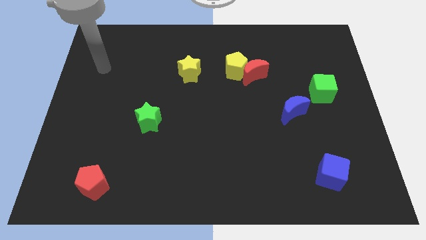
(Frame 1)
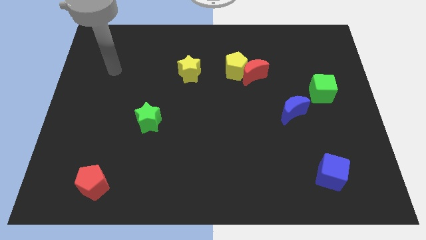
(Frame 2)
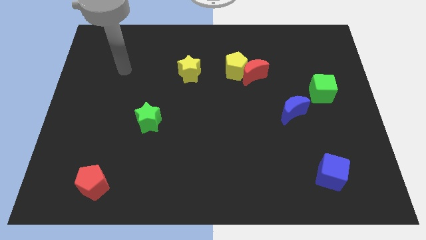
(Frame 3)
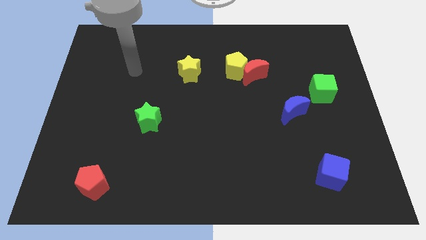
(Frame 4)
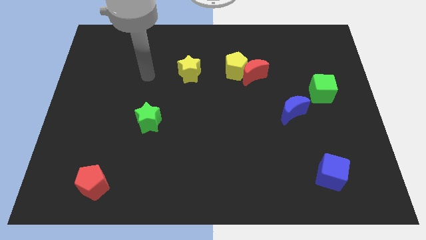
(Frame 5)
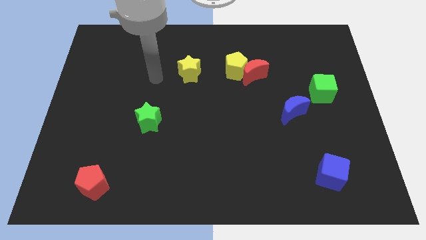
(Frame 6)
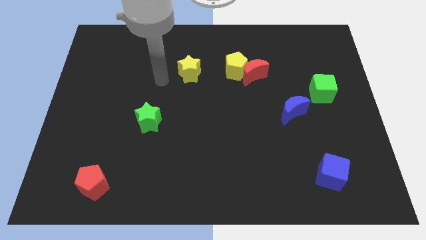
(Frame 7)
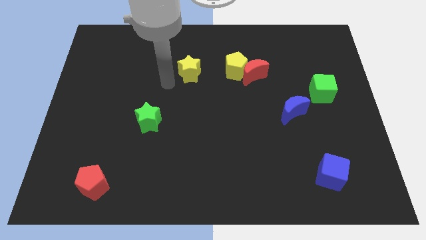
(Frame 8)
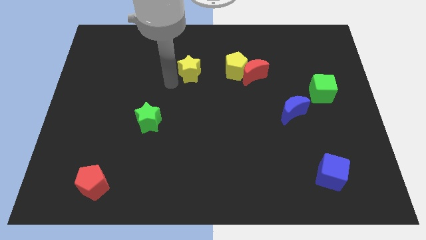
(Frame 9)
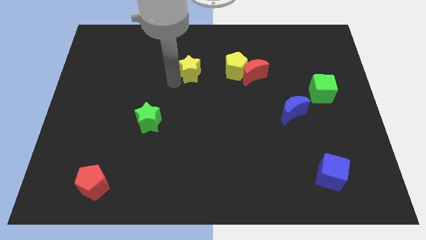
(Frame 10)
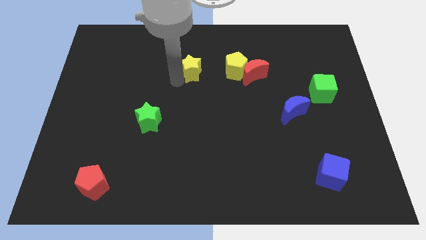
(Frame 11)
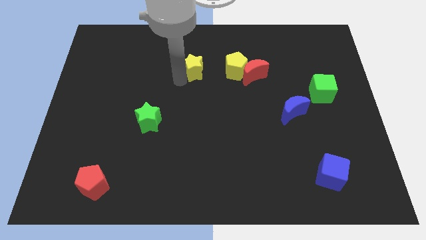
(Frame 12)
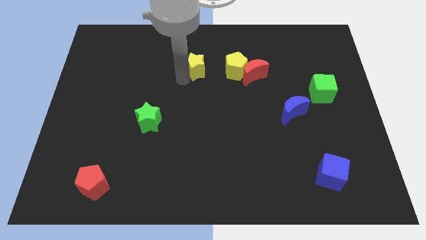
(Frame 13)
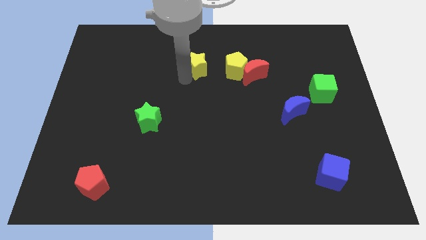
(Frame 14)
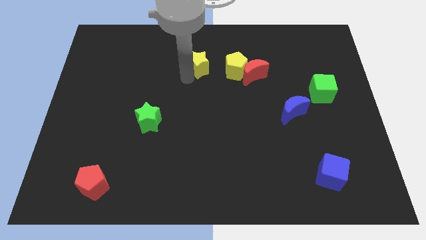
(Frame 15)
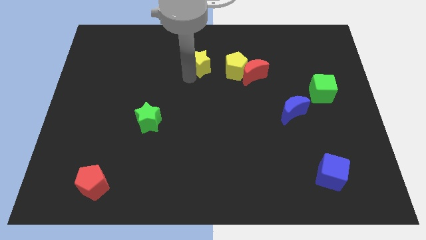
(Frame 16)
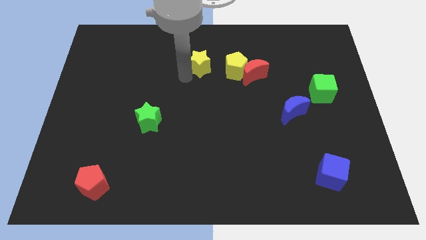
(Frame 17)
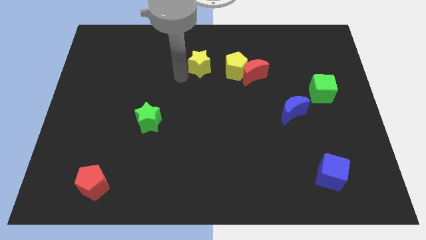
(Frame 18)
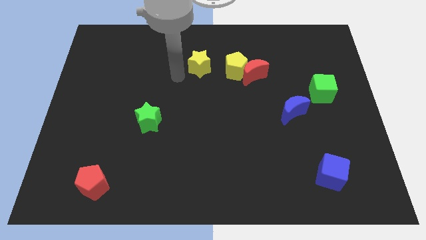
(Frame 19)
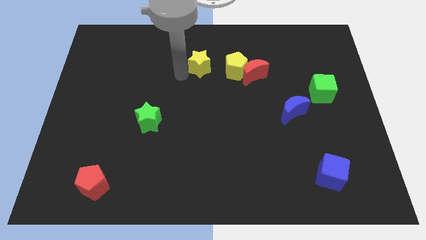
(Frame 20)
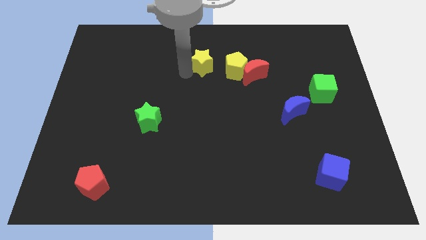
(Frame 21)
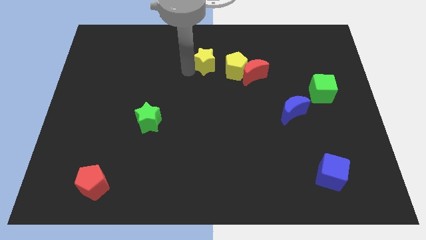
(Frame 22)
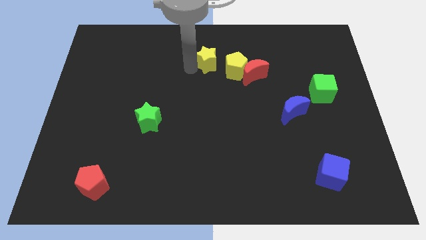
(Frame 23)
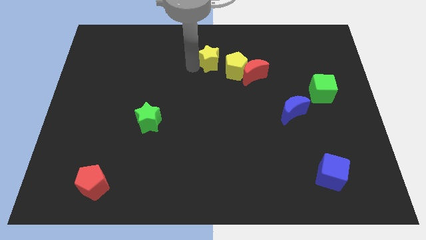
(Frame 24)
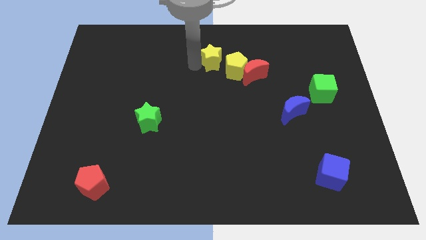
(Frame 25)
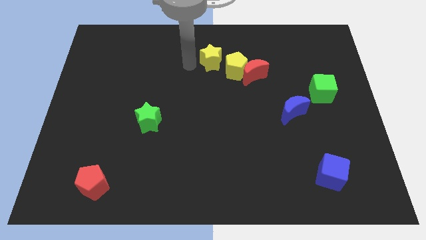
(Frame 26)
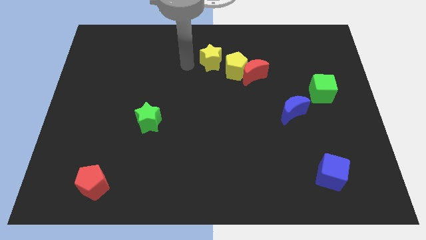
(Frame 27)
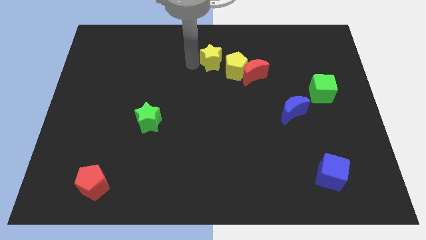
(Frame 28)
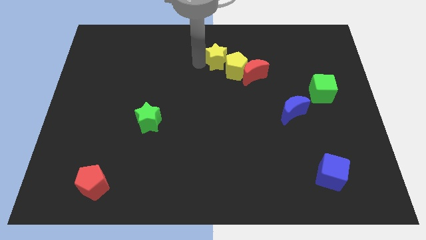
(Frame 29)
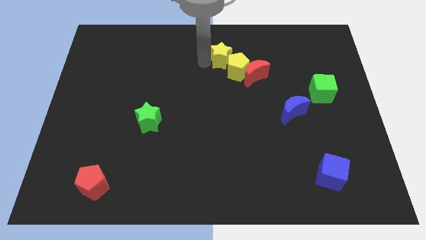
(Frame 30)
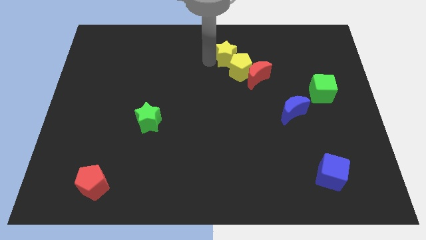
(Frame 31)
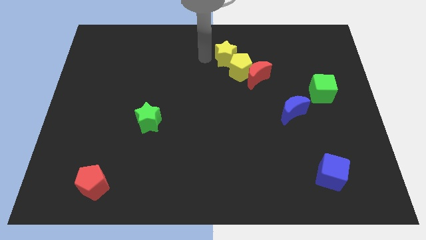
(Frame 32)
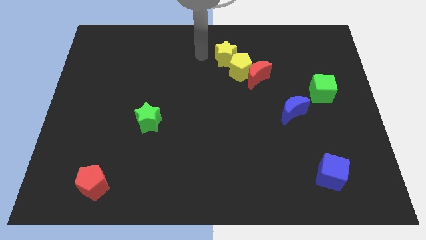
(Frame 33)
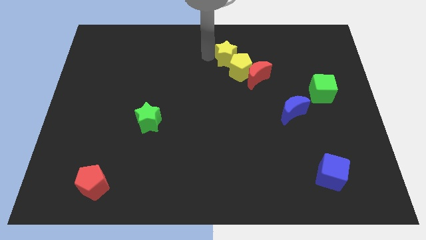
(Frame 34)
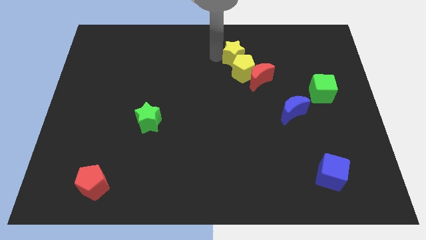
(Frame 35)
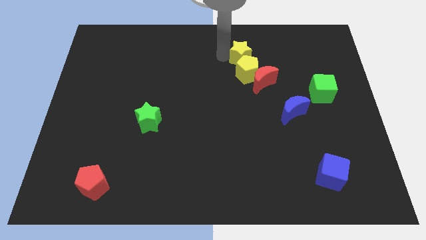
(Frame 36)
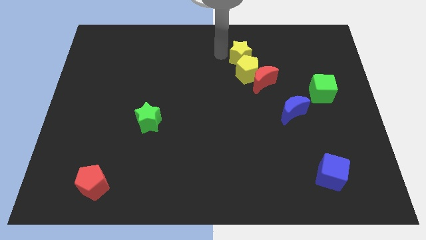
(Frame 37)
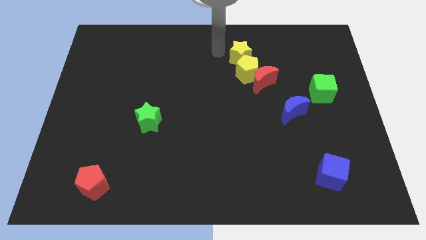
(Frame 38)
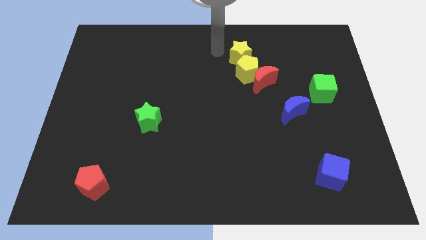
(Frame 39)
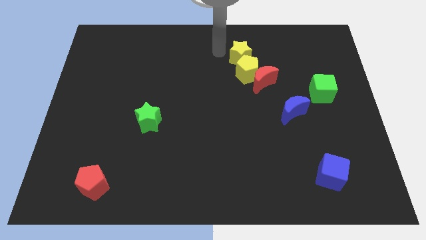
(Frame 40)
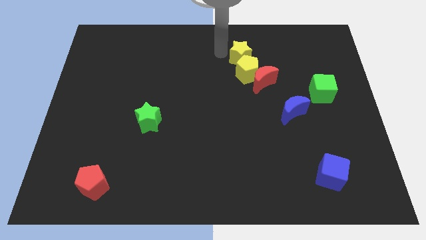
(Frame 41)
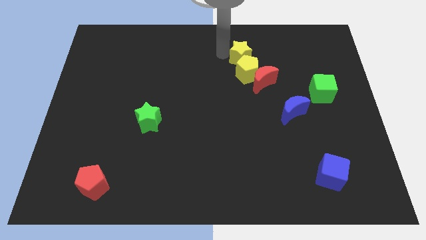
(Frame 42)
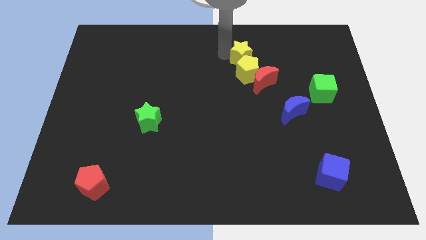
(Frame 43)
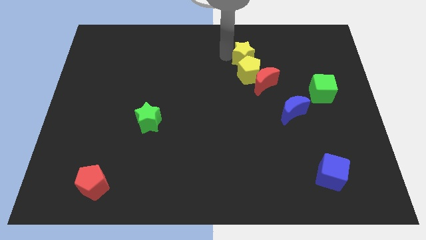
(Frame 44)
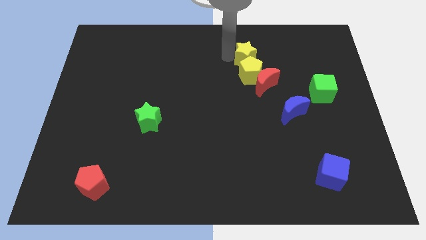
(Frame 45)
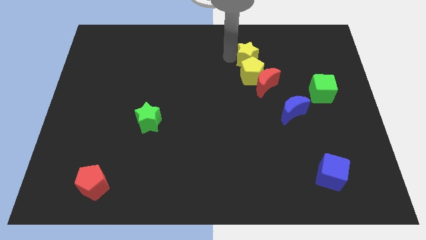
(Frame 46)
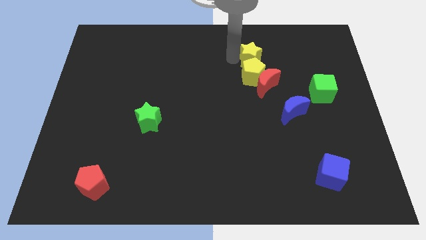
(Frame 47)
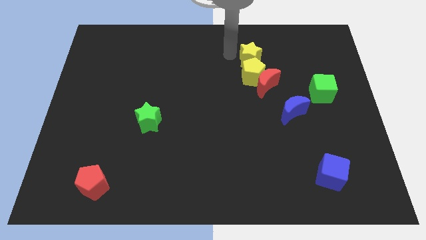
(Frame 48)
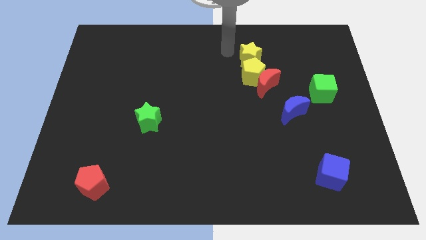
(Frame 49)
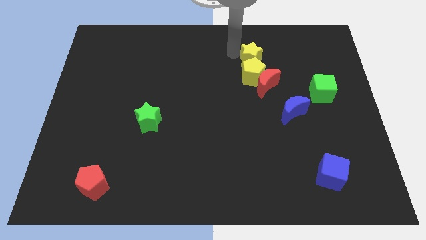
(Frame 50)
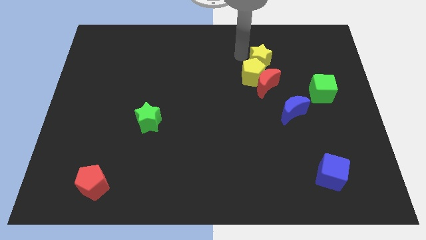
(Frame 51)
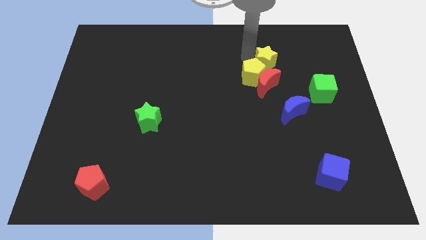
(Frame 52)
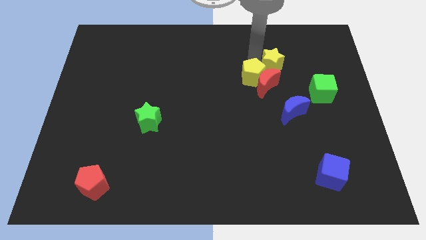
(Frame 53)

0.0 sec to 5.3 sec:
slide the yellow star to the top right side of the red moon

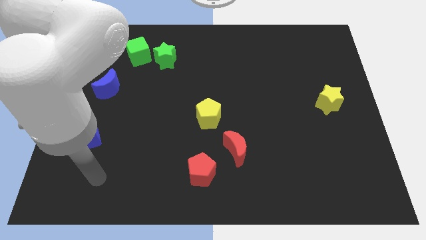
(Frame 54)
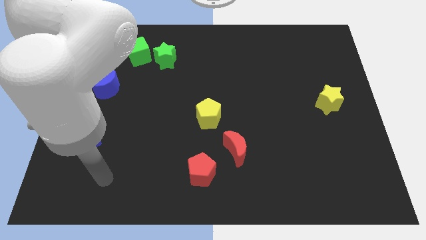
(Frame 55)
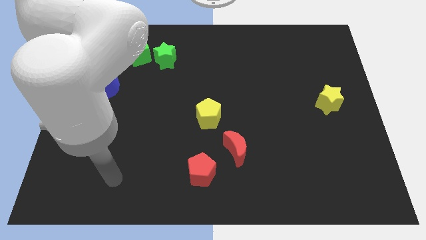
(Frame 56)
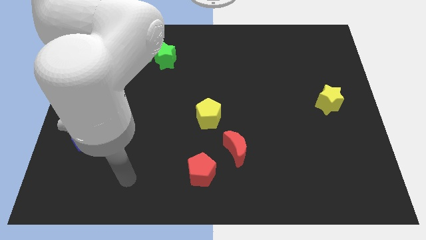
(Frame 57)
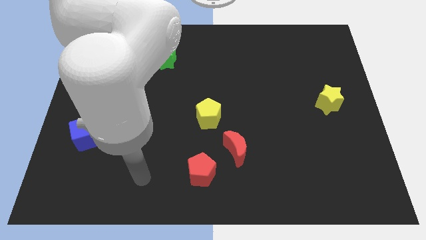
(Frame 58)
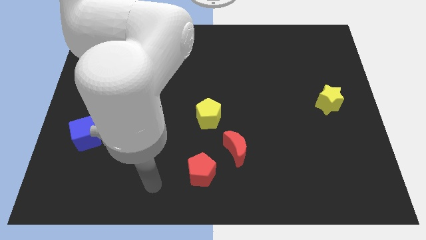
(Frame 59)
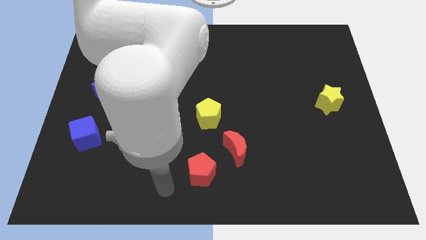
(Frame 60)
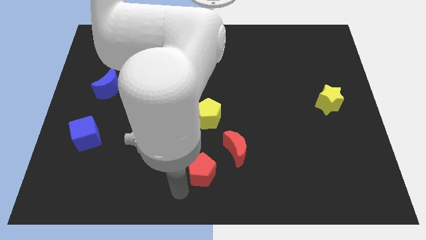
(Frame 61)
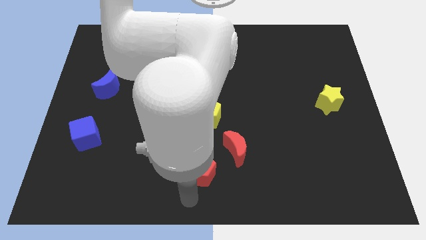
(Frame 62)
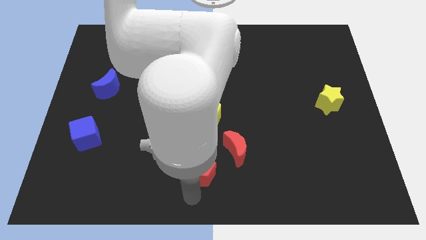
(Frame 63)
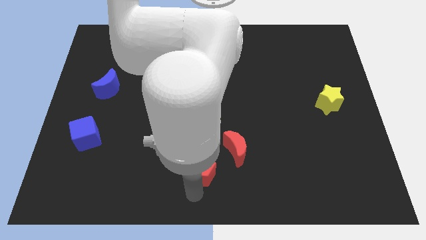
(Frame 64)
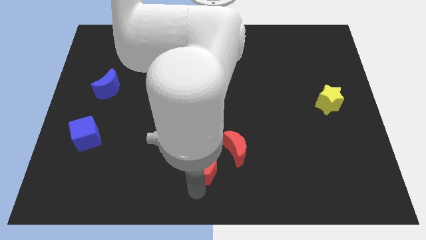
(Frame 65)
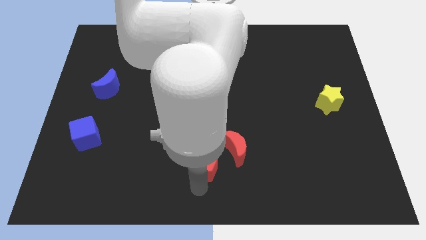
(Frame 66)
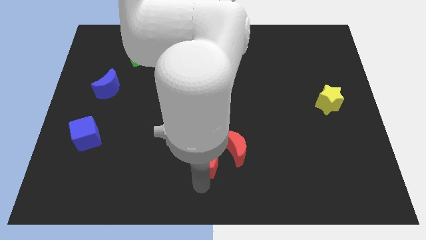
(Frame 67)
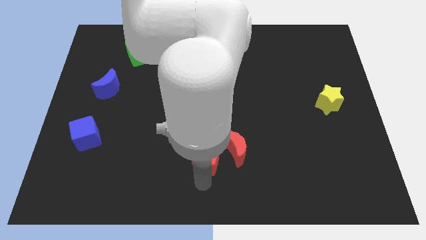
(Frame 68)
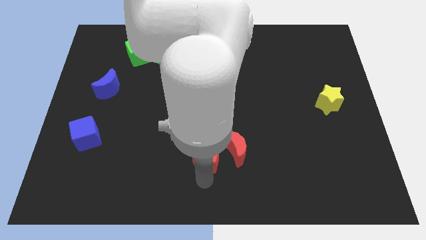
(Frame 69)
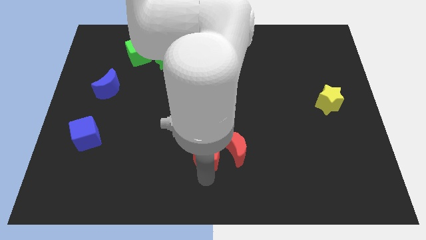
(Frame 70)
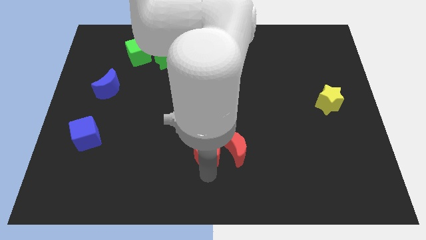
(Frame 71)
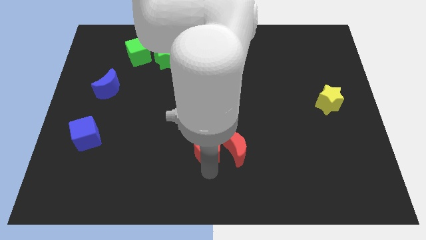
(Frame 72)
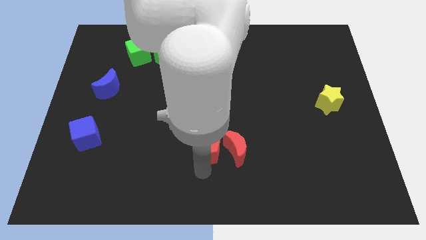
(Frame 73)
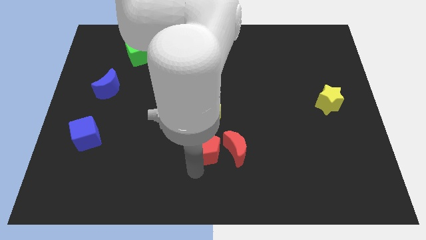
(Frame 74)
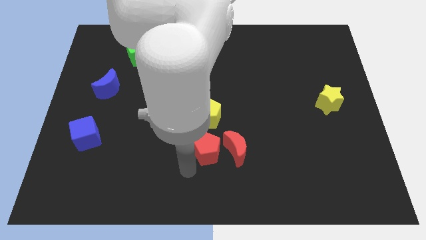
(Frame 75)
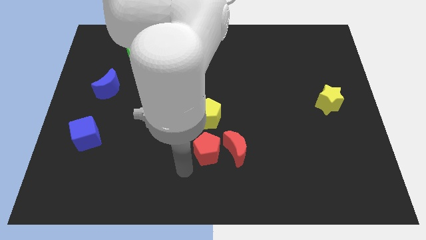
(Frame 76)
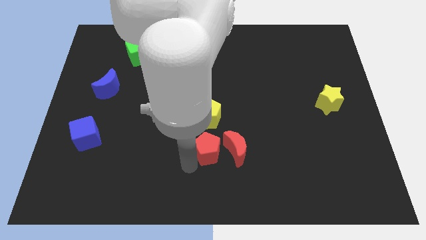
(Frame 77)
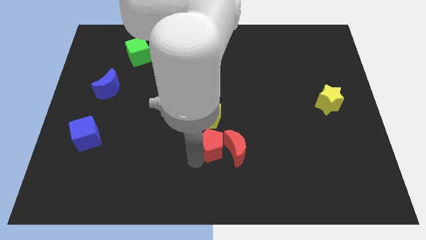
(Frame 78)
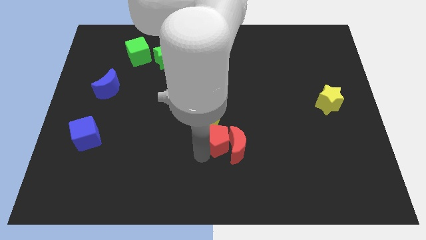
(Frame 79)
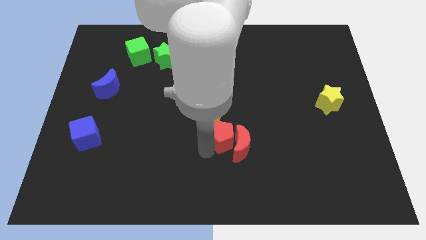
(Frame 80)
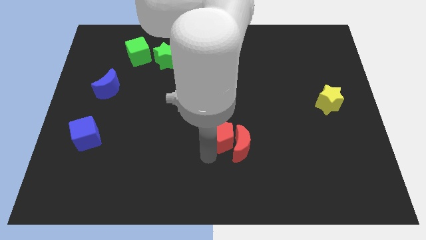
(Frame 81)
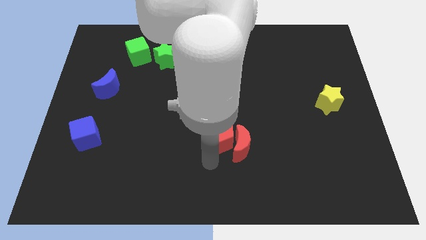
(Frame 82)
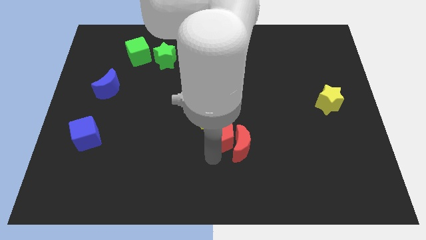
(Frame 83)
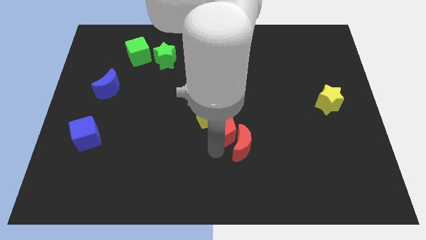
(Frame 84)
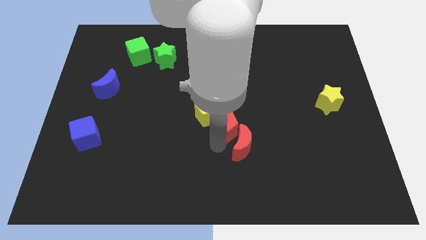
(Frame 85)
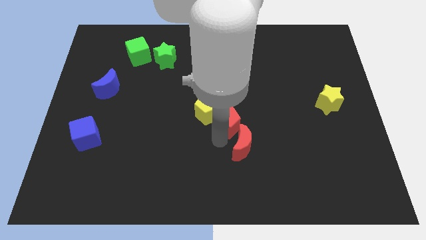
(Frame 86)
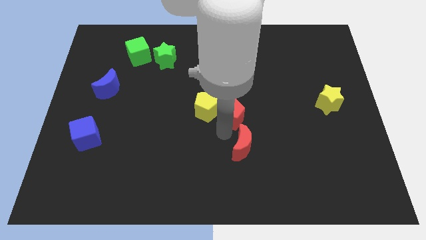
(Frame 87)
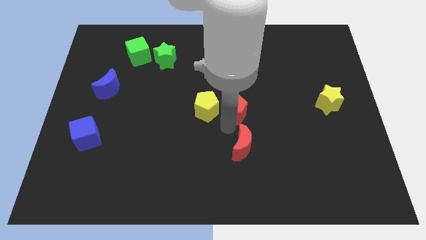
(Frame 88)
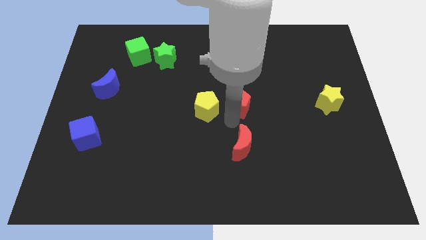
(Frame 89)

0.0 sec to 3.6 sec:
put the red pentagon diagonally up and to the right of the yellow pentagon
